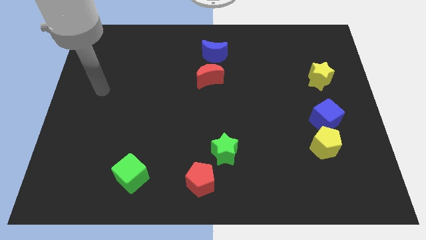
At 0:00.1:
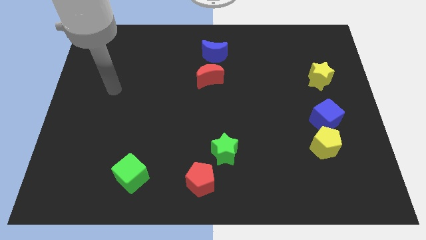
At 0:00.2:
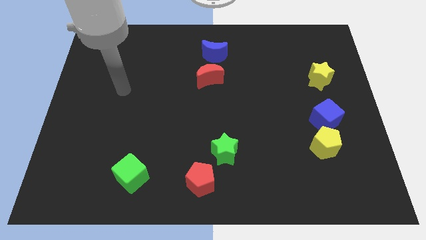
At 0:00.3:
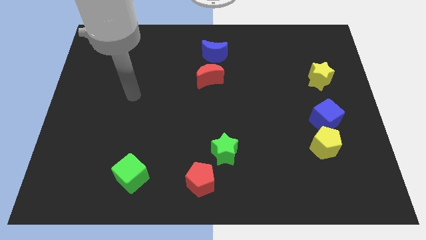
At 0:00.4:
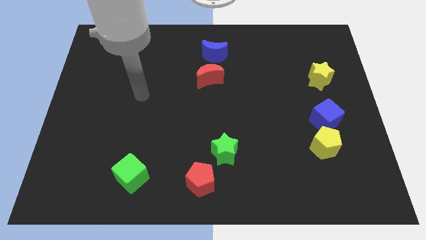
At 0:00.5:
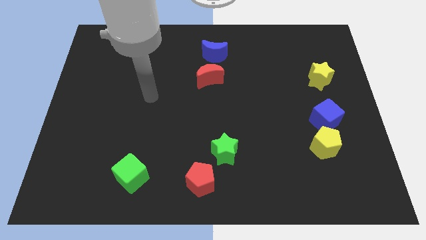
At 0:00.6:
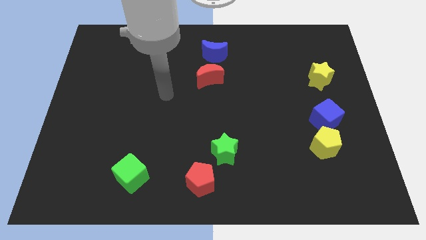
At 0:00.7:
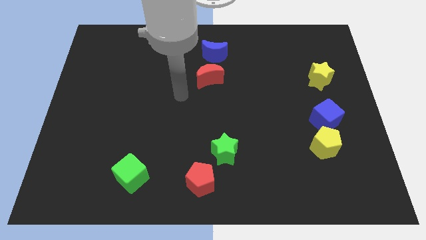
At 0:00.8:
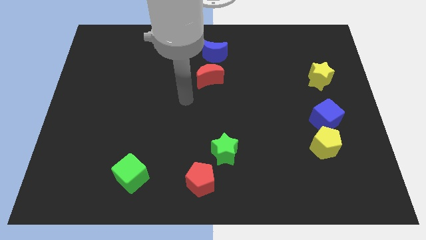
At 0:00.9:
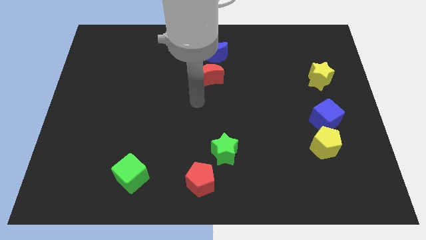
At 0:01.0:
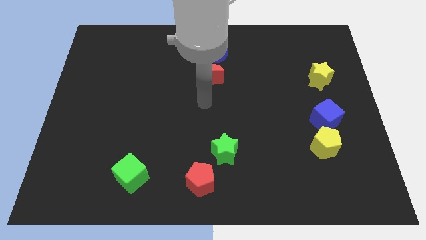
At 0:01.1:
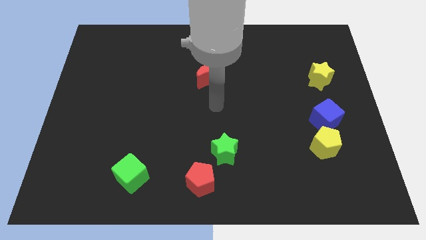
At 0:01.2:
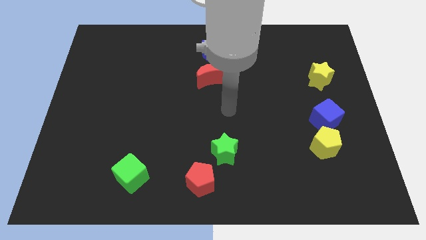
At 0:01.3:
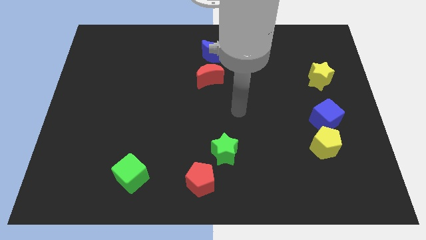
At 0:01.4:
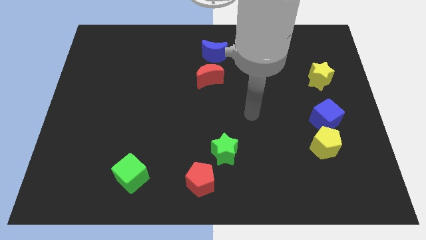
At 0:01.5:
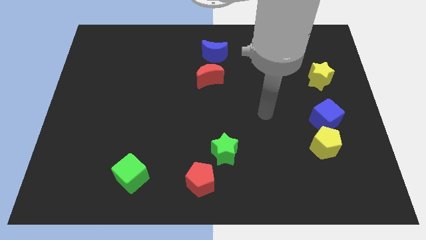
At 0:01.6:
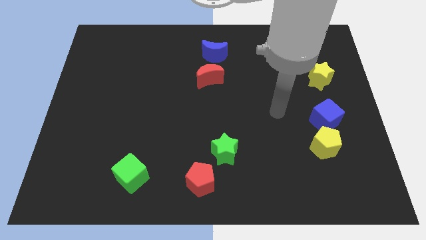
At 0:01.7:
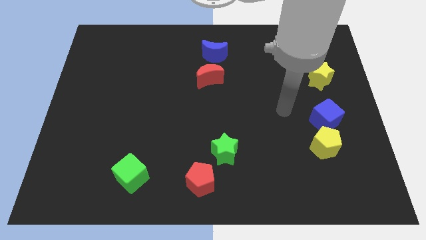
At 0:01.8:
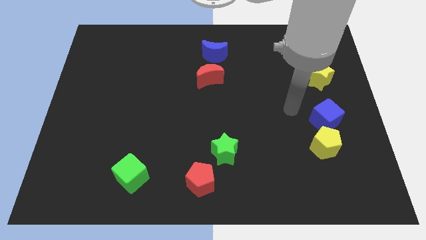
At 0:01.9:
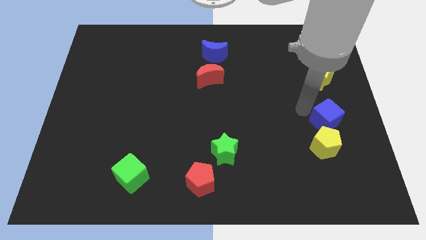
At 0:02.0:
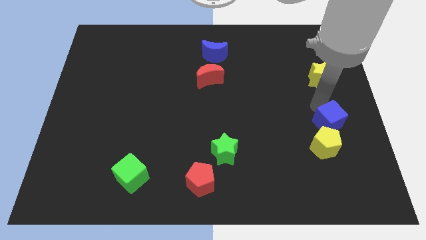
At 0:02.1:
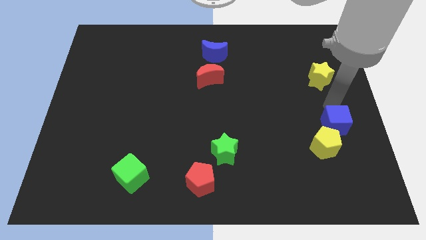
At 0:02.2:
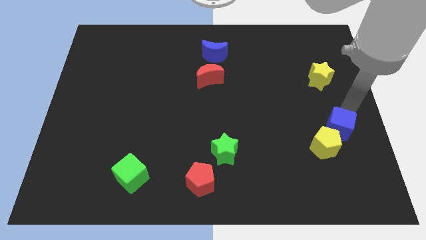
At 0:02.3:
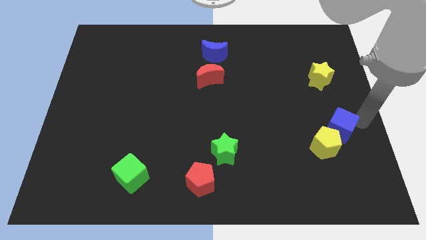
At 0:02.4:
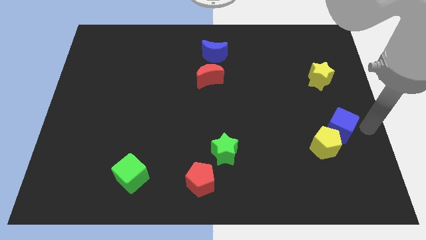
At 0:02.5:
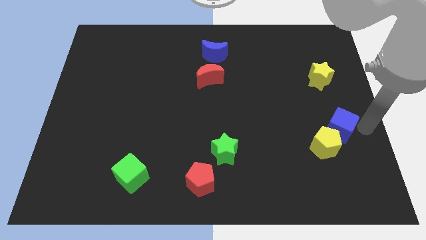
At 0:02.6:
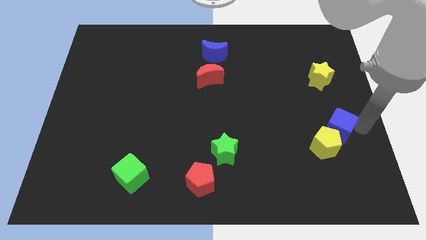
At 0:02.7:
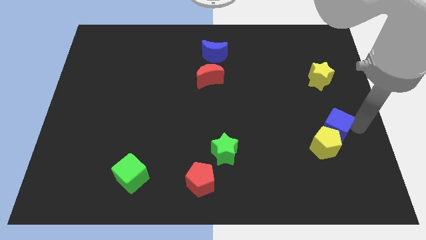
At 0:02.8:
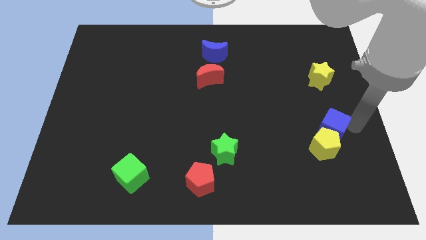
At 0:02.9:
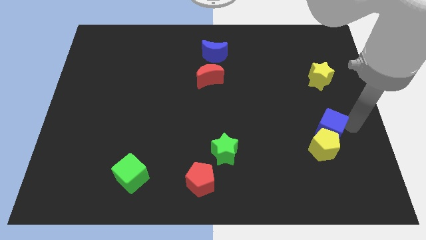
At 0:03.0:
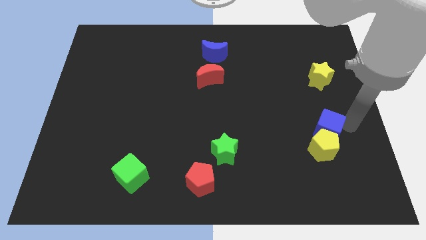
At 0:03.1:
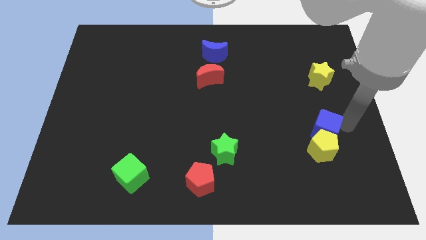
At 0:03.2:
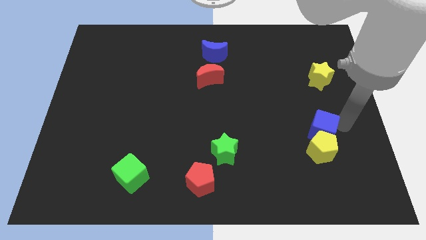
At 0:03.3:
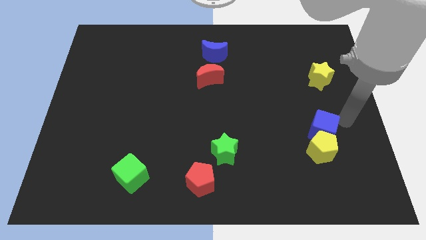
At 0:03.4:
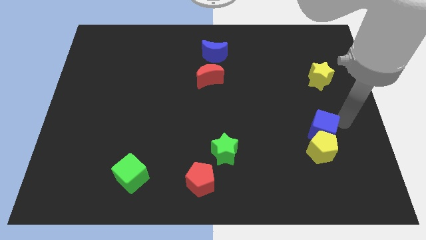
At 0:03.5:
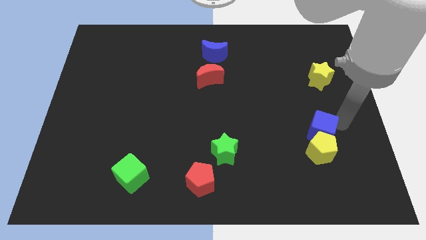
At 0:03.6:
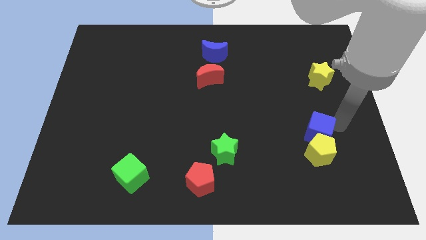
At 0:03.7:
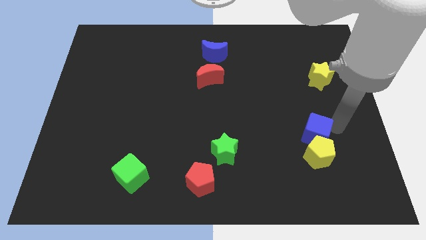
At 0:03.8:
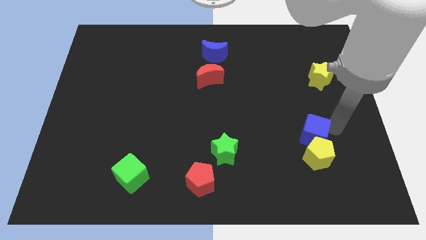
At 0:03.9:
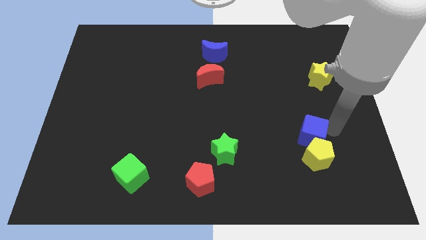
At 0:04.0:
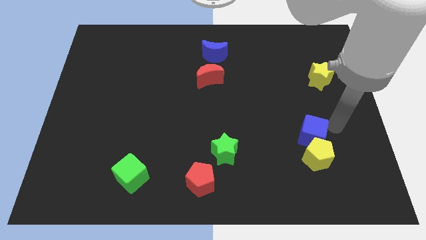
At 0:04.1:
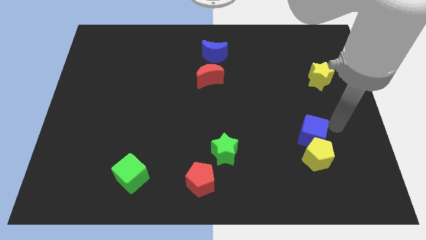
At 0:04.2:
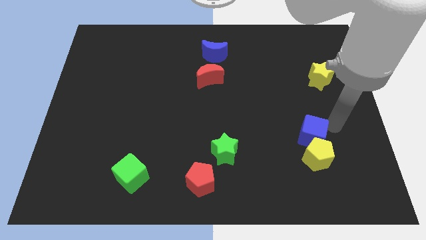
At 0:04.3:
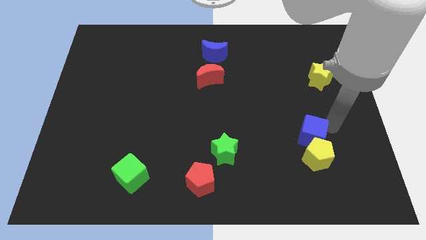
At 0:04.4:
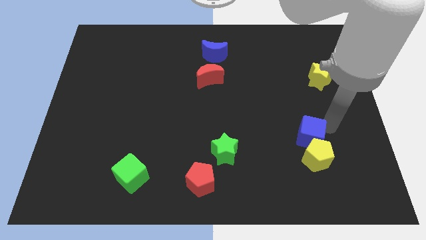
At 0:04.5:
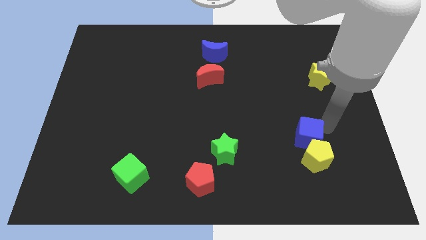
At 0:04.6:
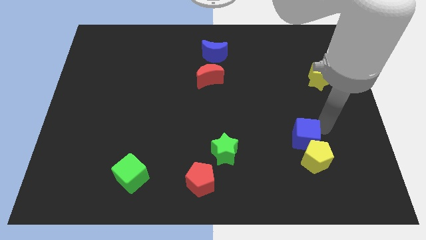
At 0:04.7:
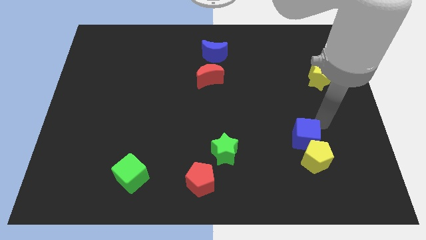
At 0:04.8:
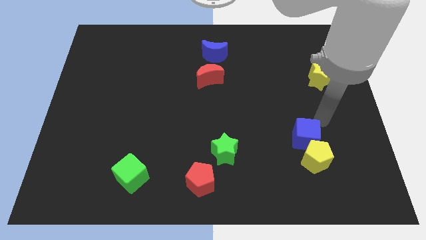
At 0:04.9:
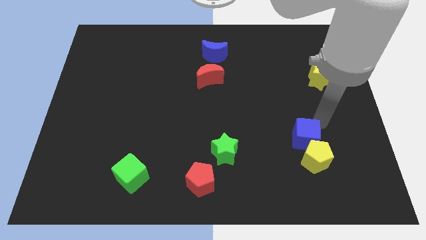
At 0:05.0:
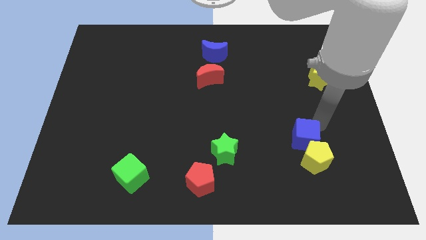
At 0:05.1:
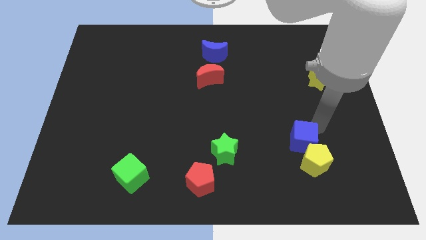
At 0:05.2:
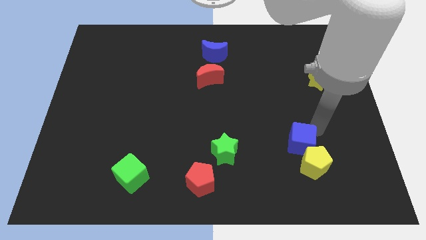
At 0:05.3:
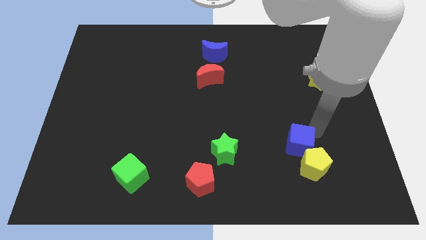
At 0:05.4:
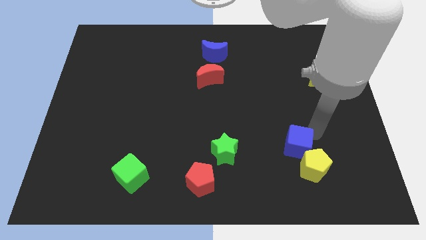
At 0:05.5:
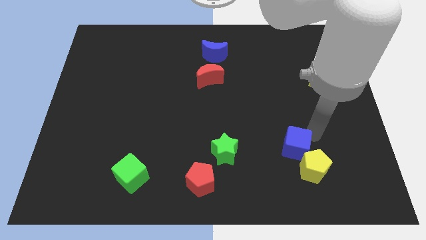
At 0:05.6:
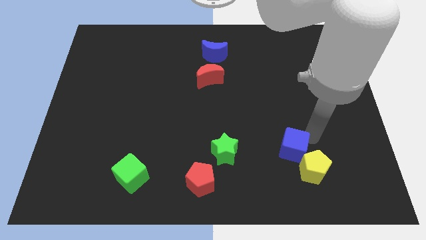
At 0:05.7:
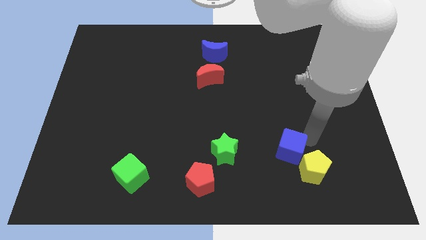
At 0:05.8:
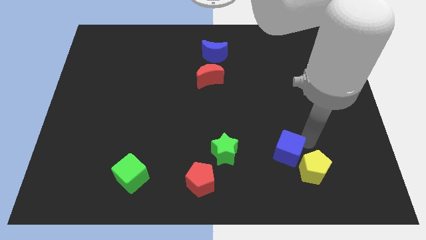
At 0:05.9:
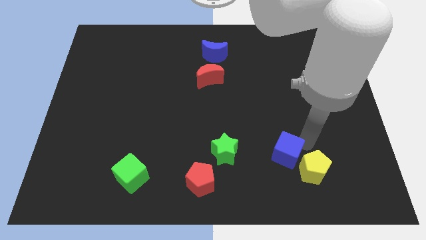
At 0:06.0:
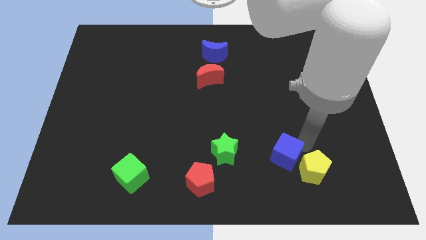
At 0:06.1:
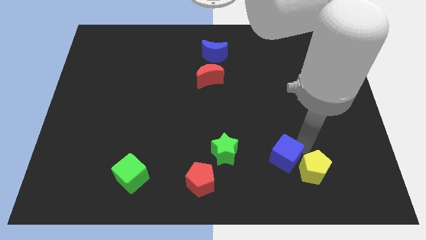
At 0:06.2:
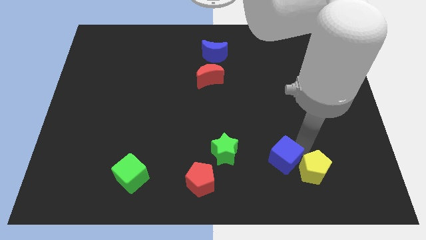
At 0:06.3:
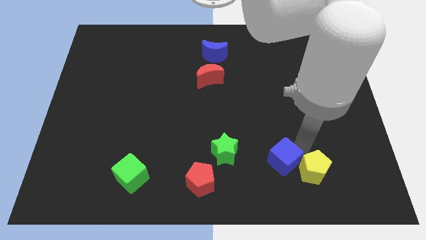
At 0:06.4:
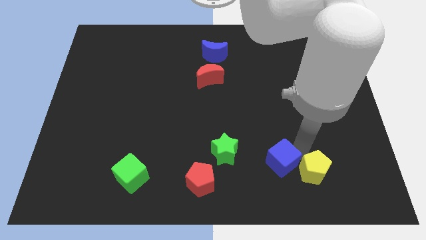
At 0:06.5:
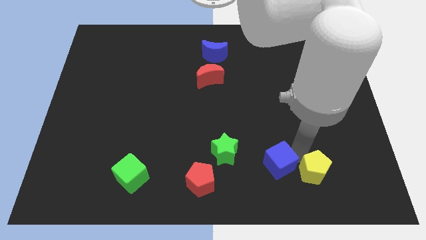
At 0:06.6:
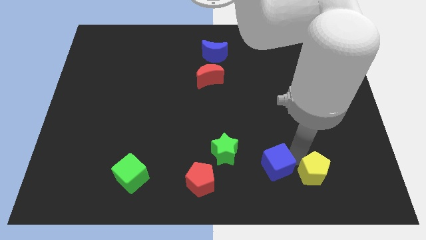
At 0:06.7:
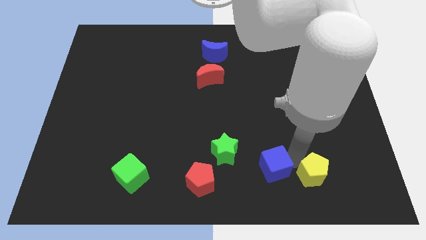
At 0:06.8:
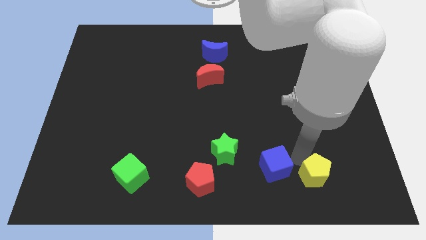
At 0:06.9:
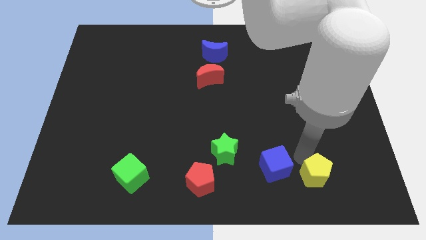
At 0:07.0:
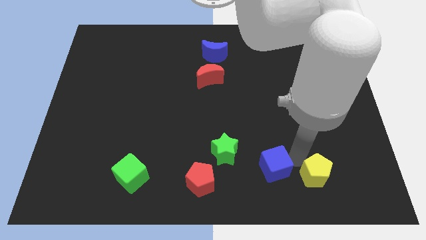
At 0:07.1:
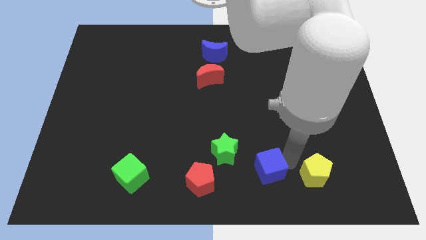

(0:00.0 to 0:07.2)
slide the blue cube diagonally down and to the right of the green star
